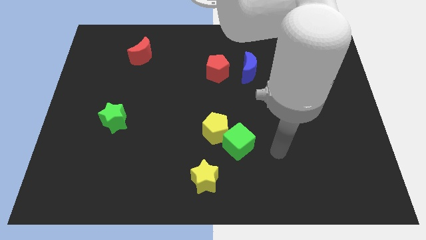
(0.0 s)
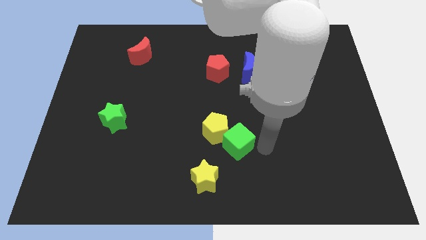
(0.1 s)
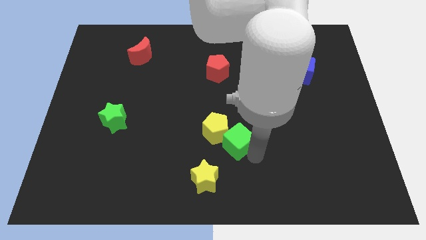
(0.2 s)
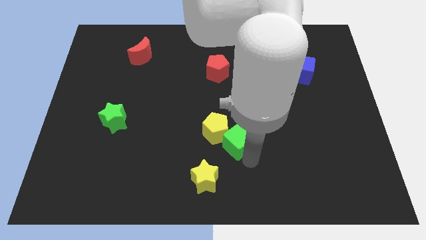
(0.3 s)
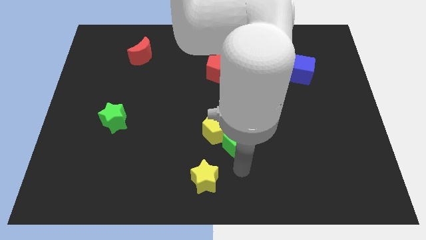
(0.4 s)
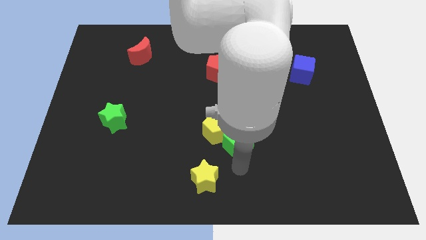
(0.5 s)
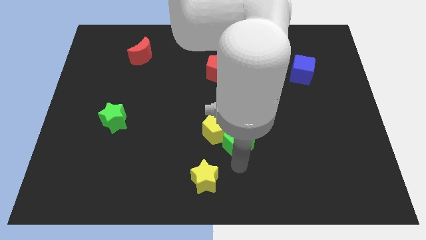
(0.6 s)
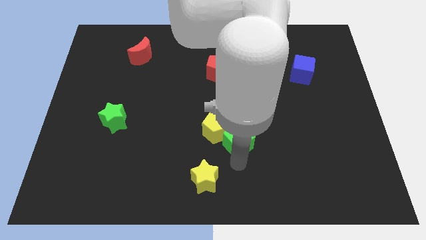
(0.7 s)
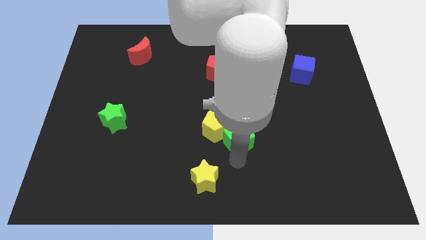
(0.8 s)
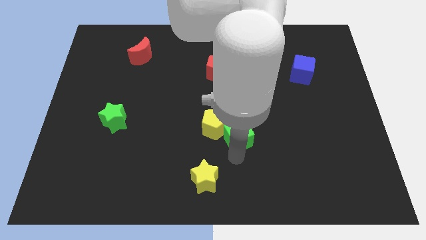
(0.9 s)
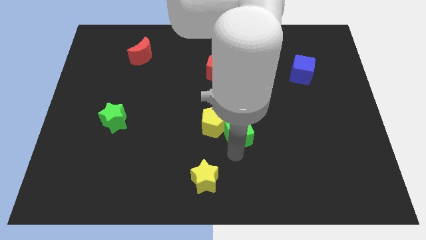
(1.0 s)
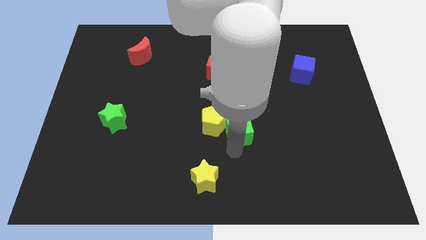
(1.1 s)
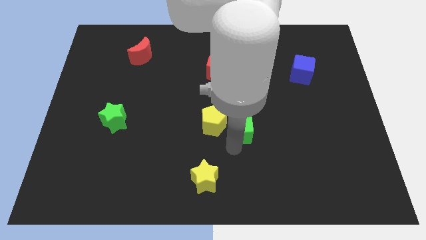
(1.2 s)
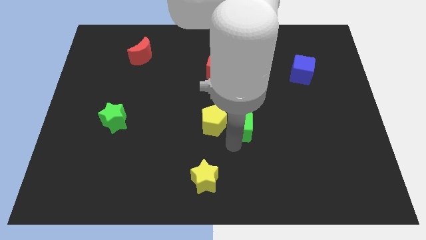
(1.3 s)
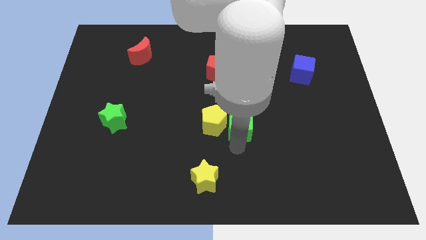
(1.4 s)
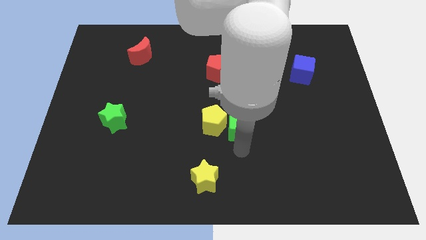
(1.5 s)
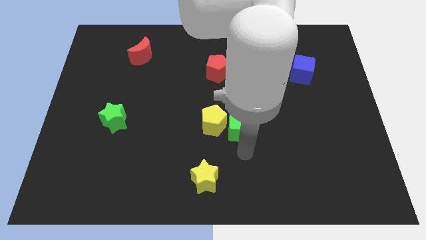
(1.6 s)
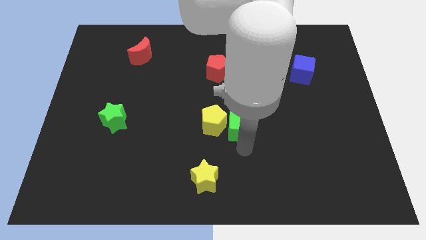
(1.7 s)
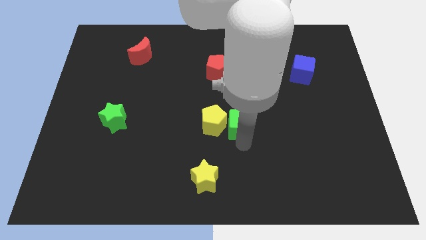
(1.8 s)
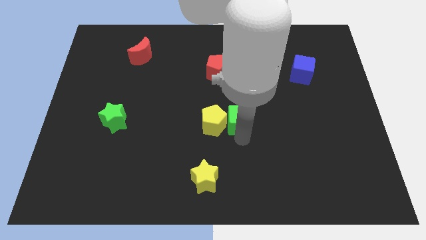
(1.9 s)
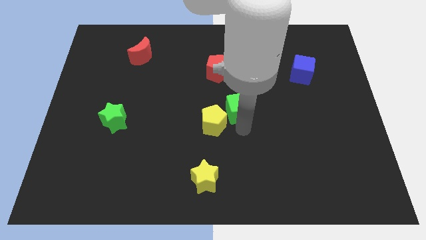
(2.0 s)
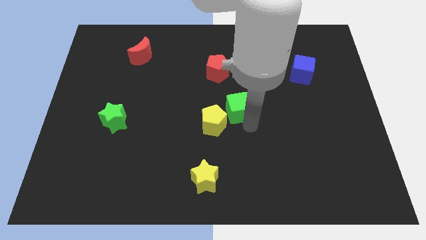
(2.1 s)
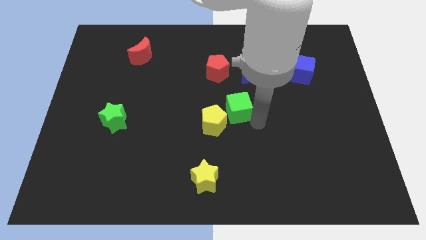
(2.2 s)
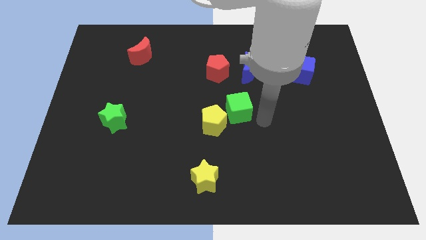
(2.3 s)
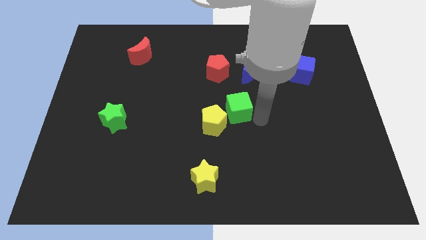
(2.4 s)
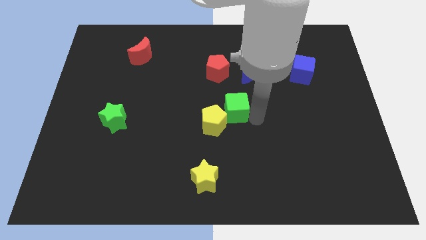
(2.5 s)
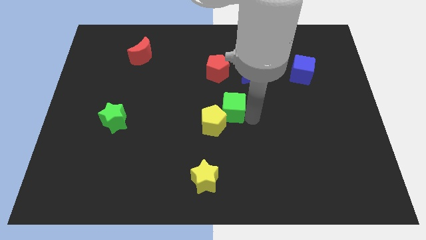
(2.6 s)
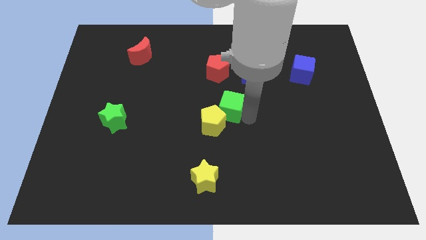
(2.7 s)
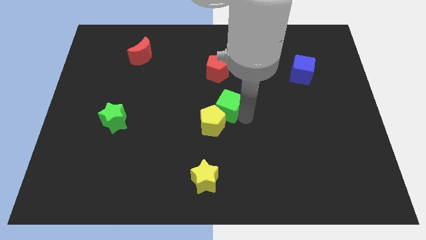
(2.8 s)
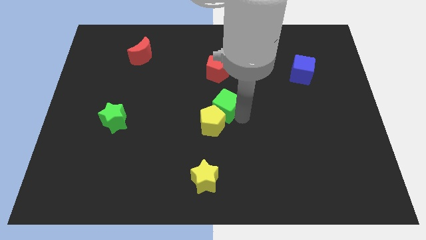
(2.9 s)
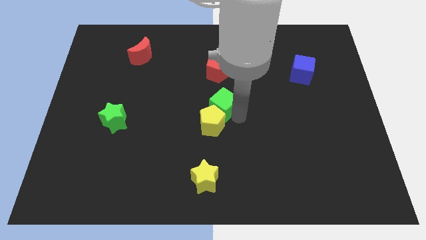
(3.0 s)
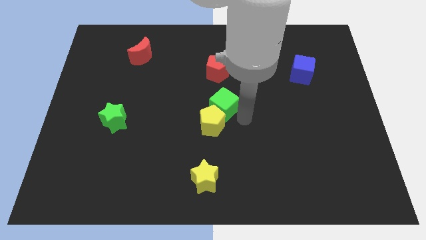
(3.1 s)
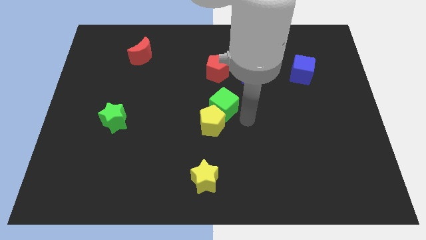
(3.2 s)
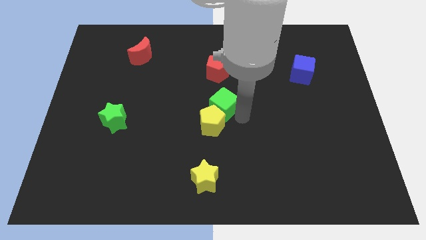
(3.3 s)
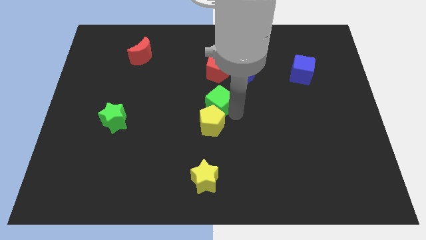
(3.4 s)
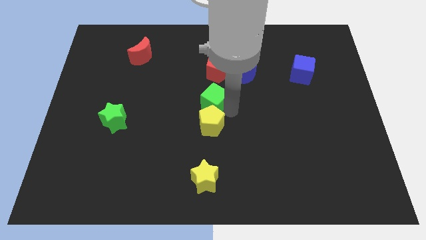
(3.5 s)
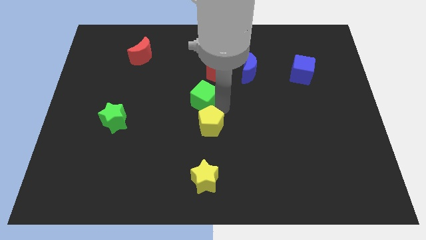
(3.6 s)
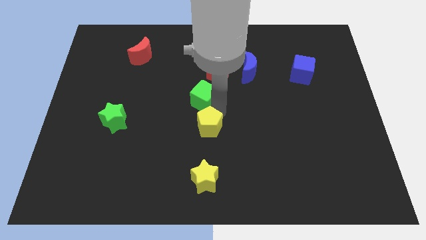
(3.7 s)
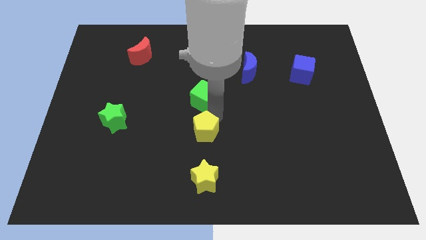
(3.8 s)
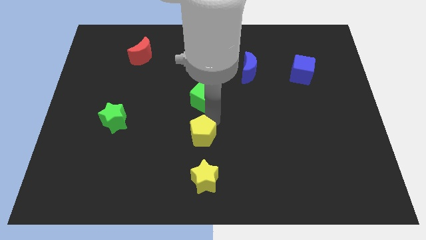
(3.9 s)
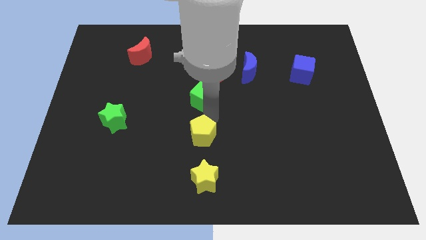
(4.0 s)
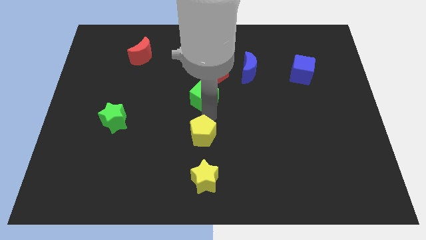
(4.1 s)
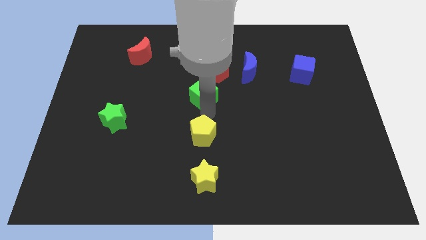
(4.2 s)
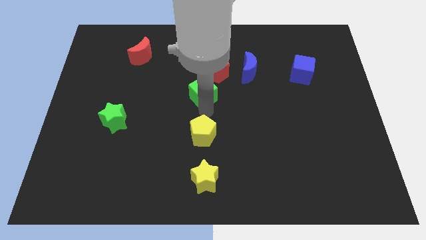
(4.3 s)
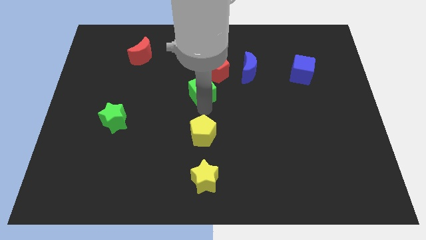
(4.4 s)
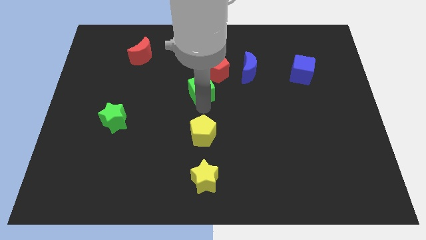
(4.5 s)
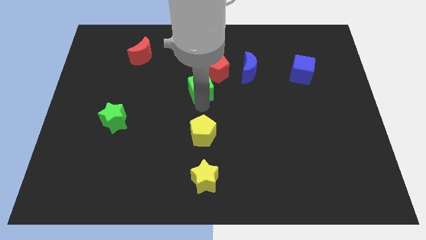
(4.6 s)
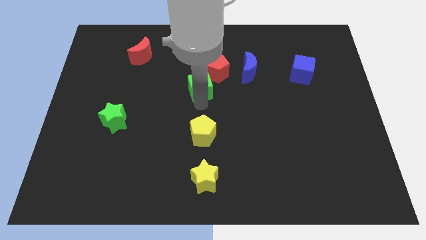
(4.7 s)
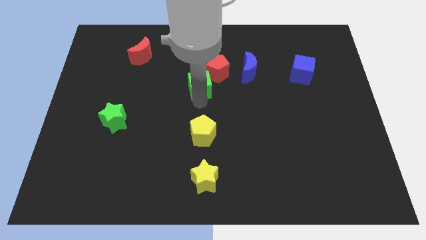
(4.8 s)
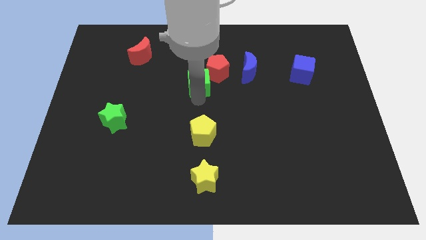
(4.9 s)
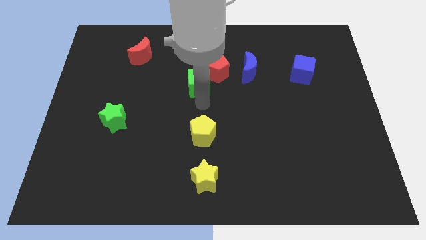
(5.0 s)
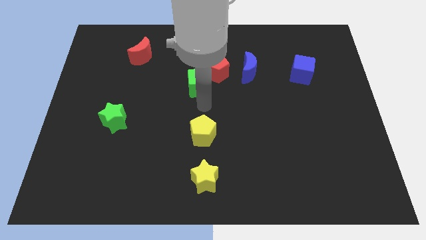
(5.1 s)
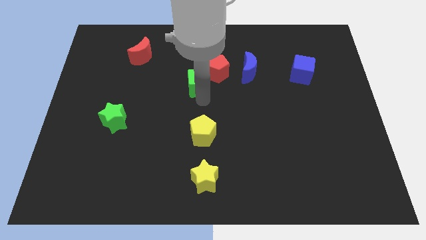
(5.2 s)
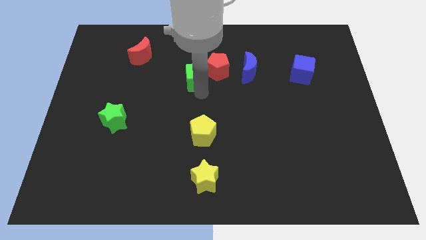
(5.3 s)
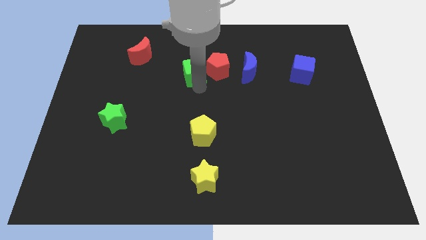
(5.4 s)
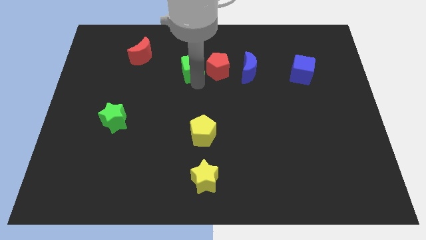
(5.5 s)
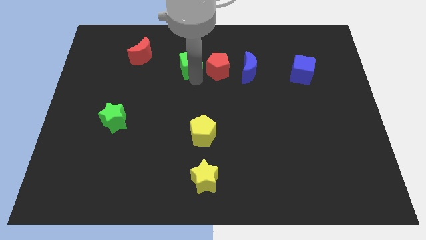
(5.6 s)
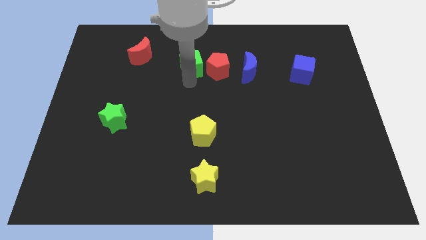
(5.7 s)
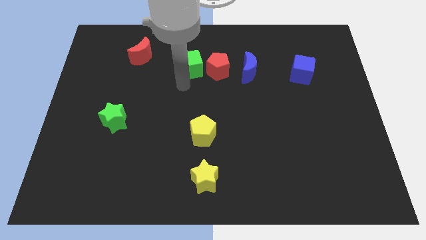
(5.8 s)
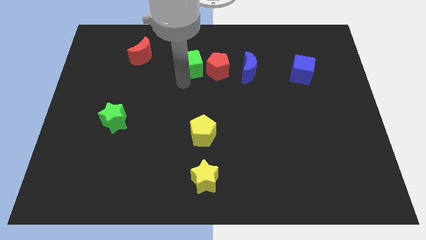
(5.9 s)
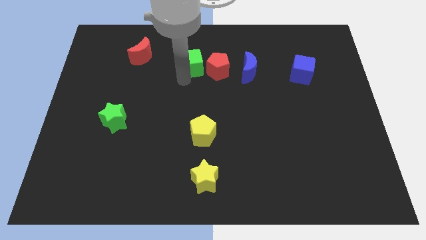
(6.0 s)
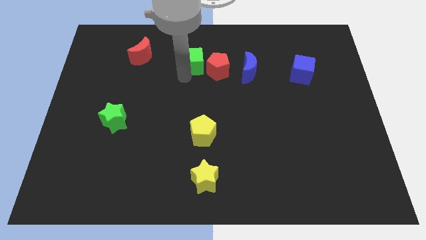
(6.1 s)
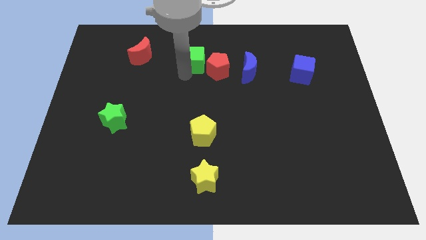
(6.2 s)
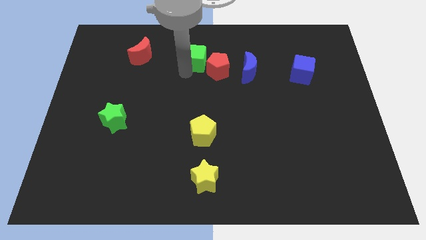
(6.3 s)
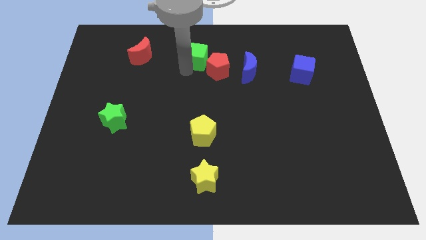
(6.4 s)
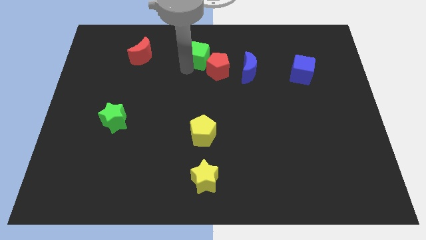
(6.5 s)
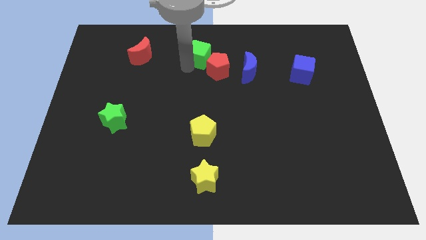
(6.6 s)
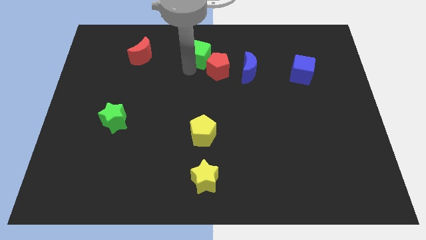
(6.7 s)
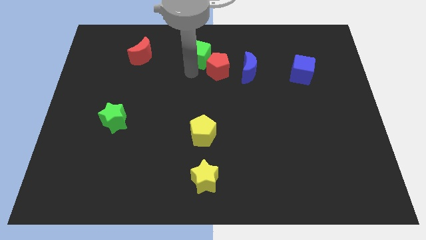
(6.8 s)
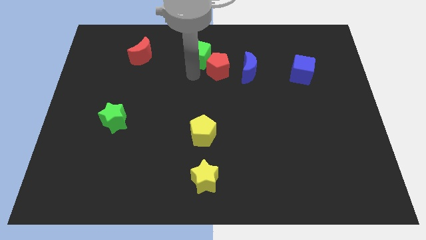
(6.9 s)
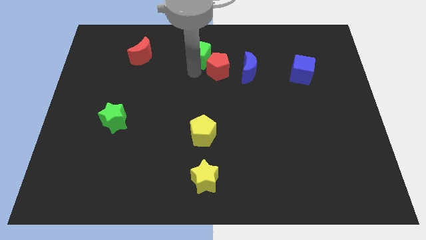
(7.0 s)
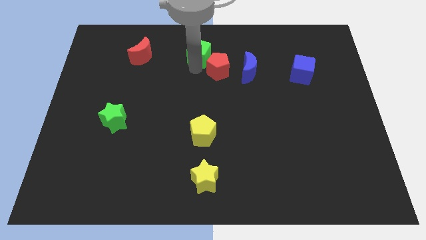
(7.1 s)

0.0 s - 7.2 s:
slide the green cube to the top side

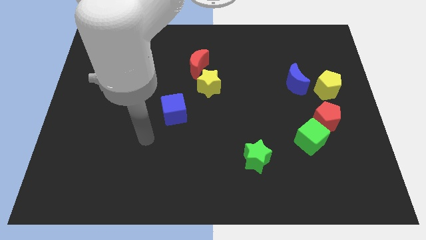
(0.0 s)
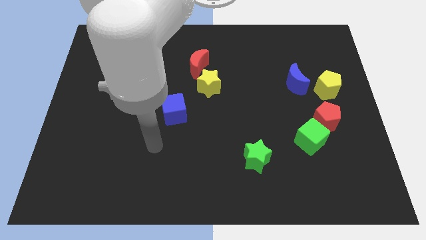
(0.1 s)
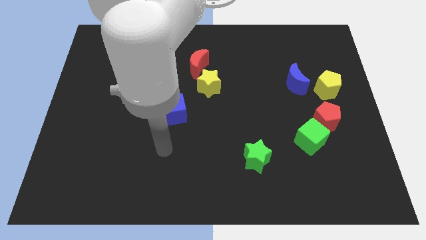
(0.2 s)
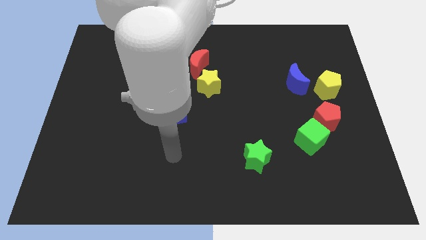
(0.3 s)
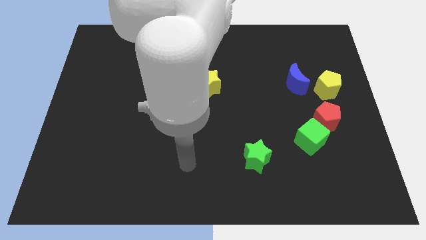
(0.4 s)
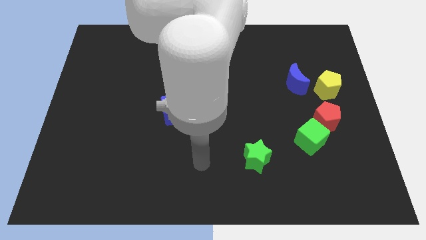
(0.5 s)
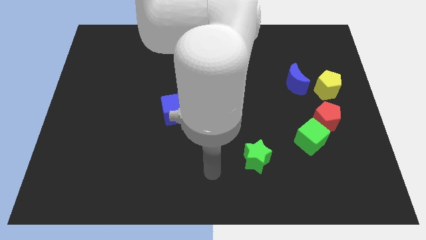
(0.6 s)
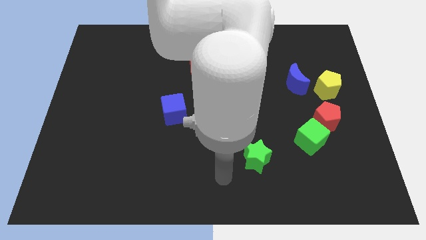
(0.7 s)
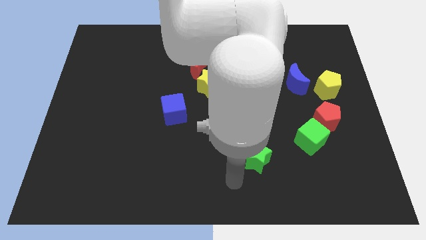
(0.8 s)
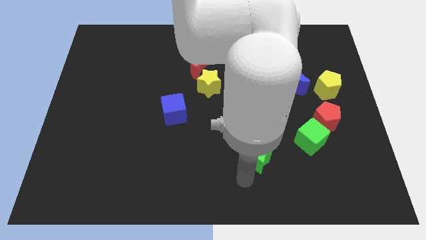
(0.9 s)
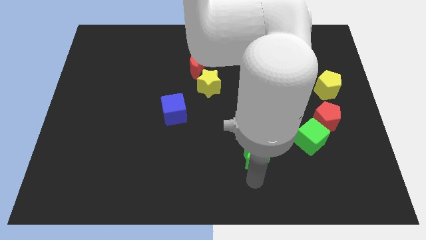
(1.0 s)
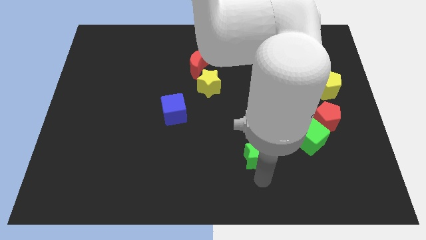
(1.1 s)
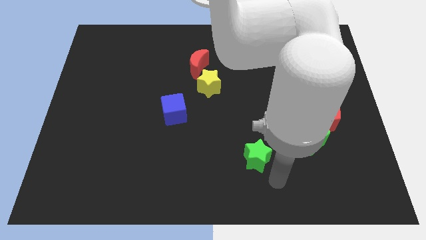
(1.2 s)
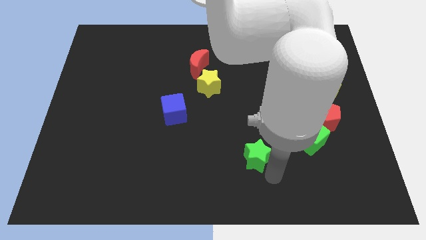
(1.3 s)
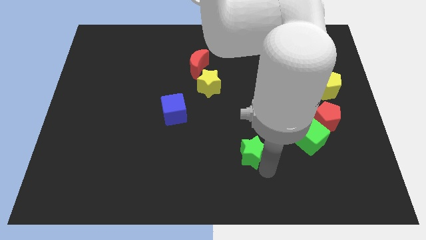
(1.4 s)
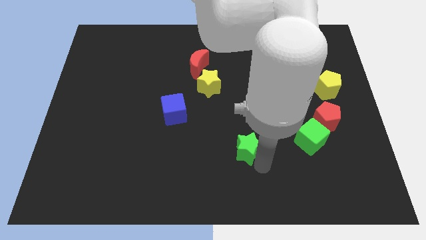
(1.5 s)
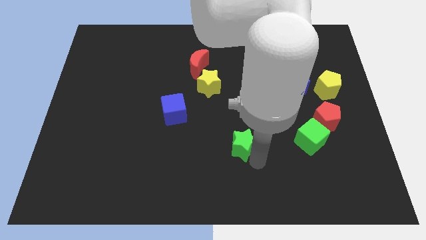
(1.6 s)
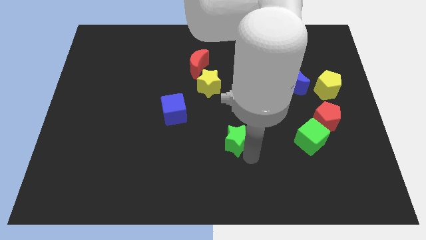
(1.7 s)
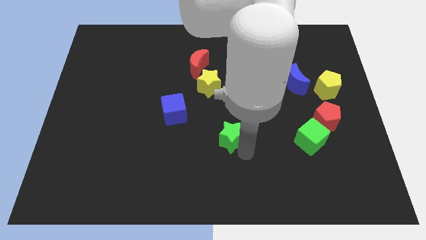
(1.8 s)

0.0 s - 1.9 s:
push the green star to the center of the board
